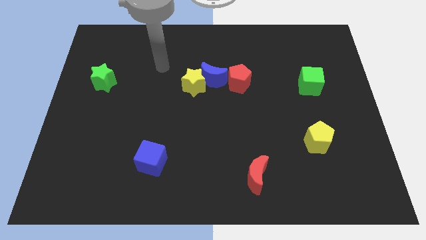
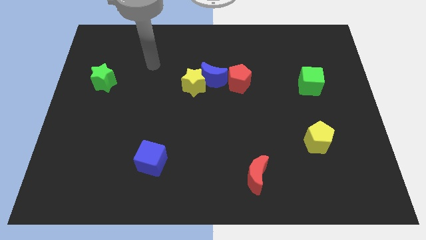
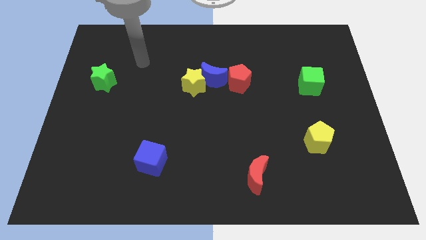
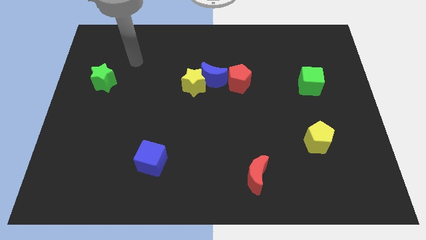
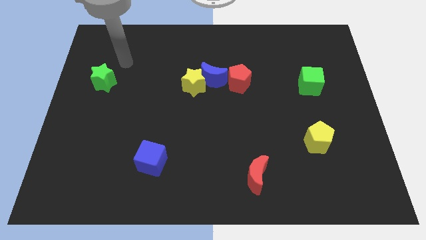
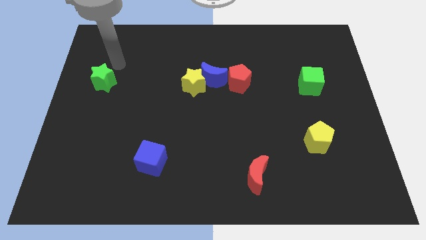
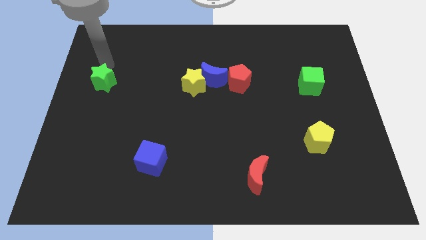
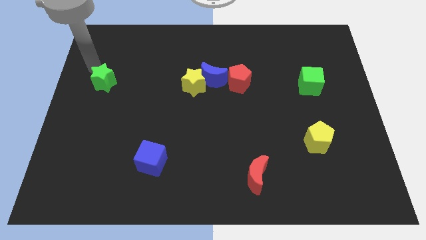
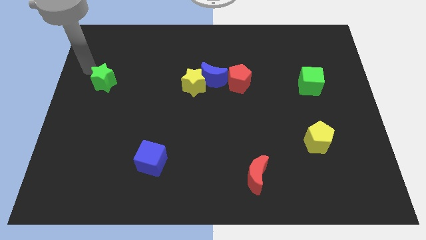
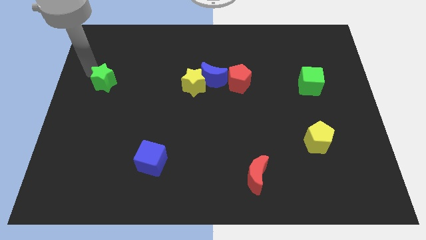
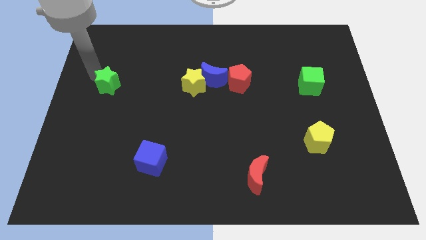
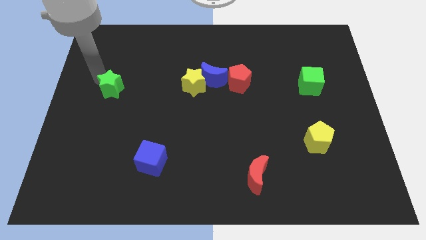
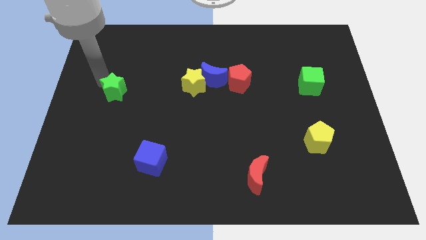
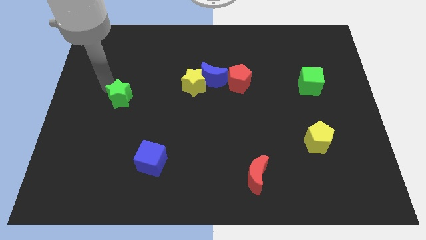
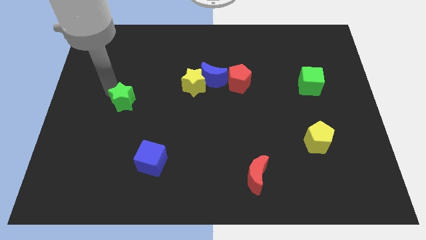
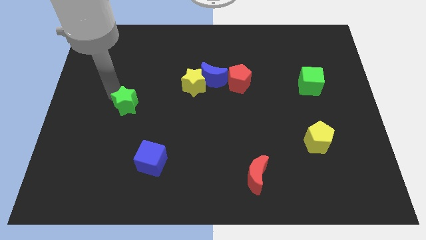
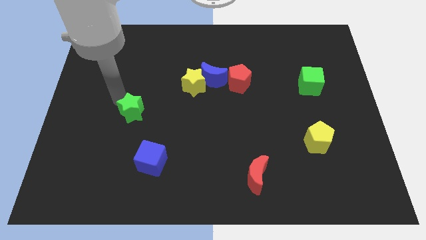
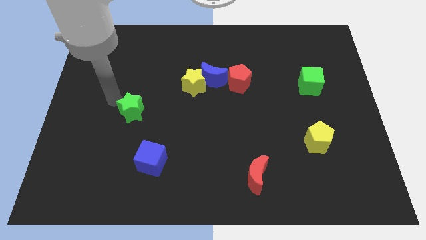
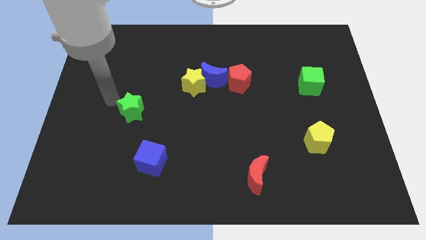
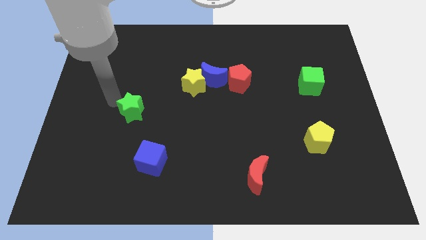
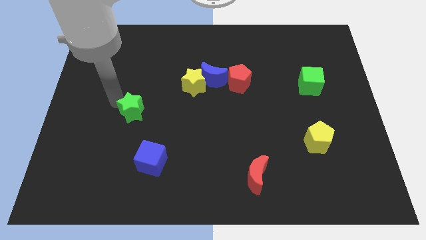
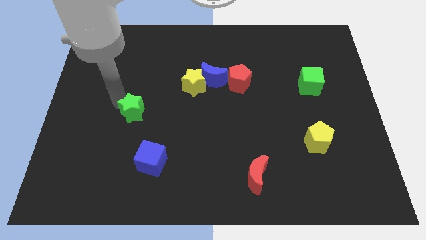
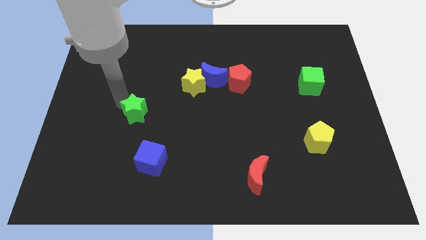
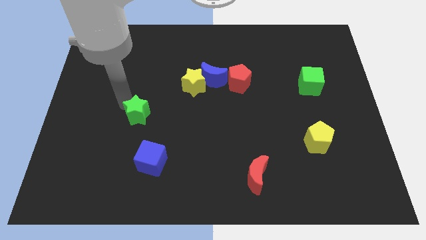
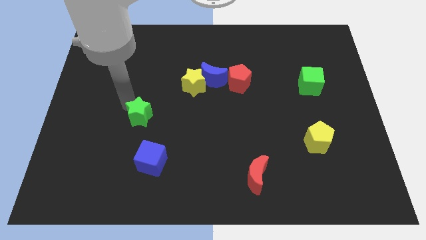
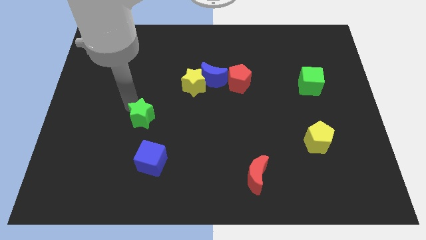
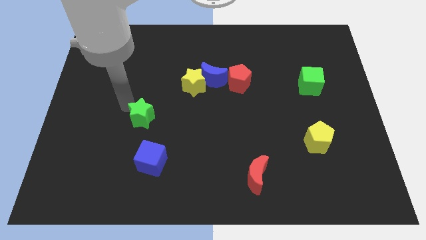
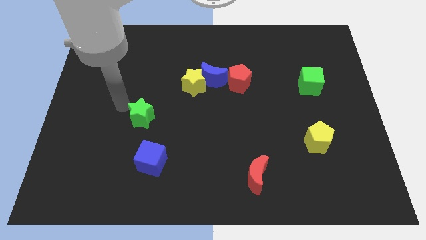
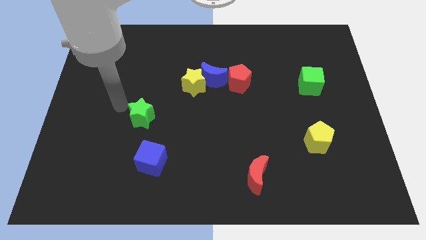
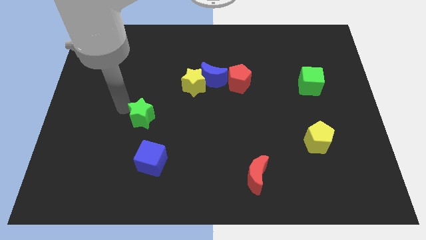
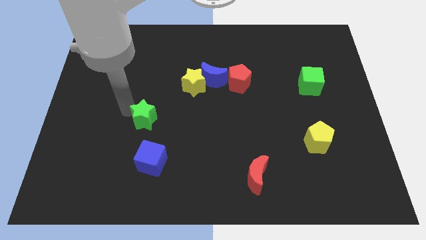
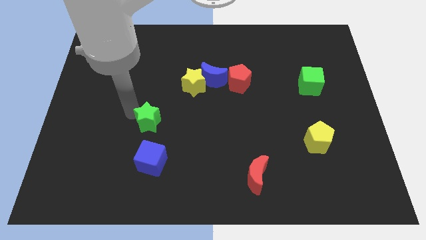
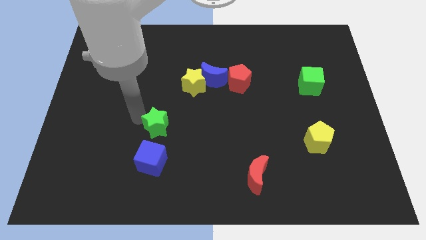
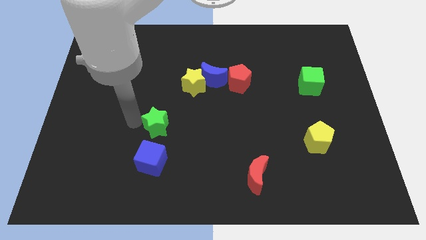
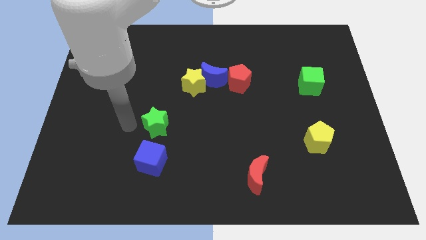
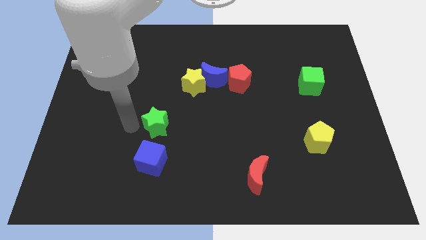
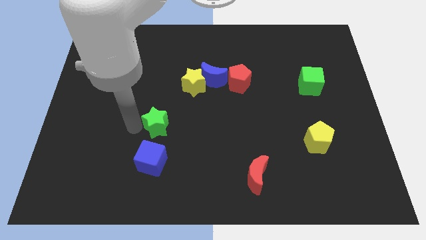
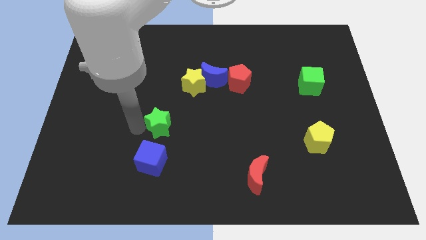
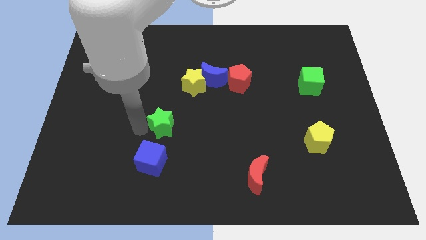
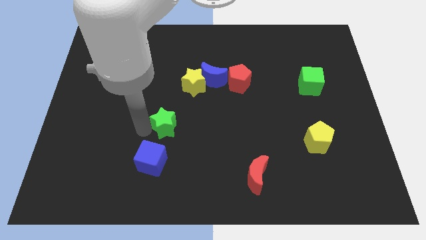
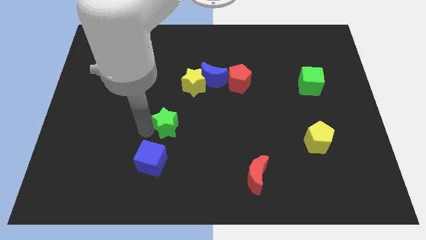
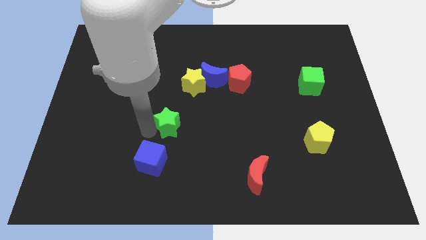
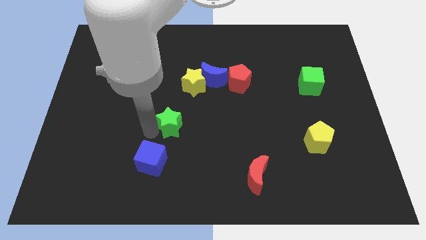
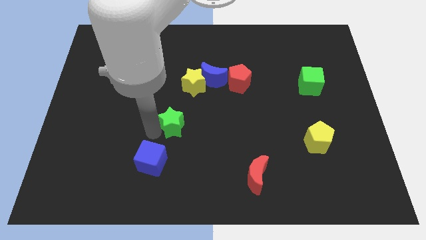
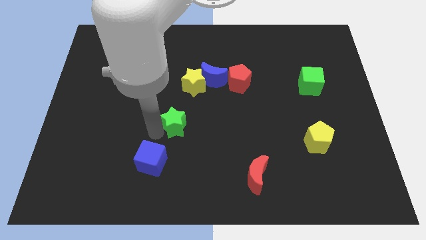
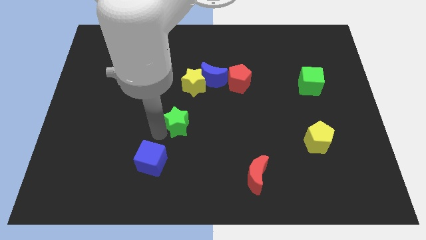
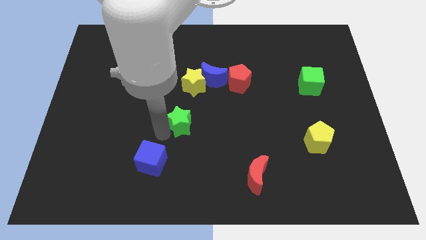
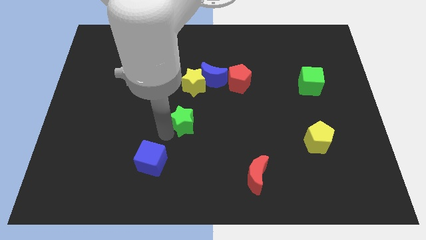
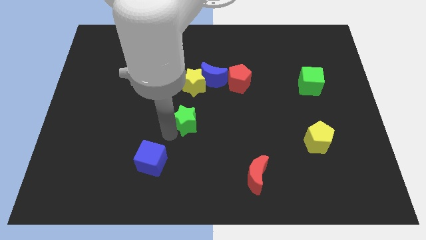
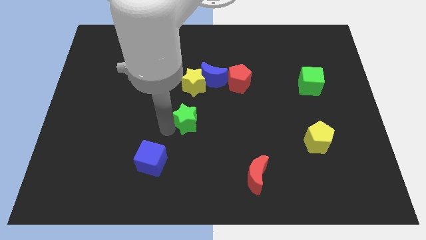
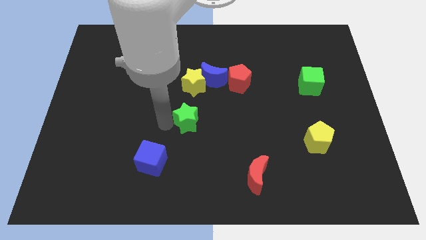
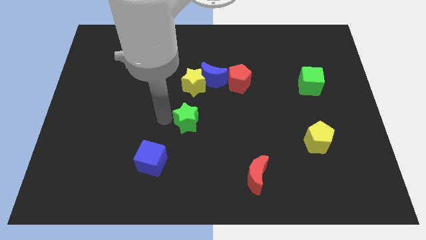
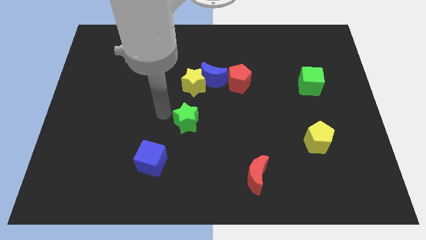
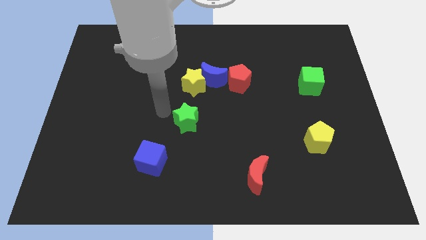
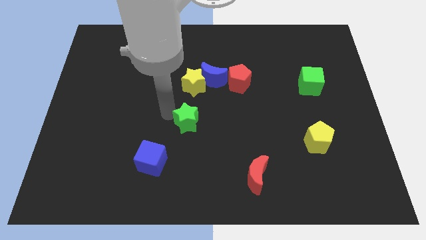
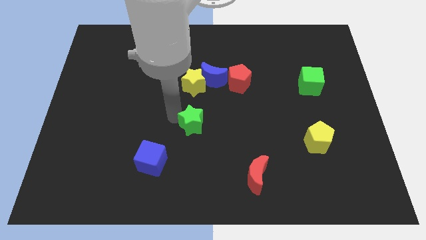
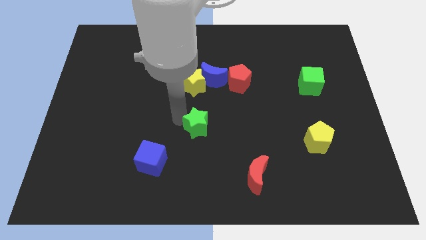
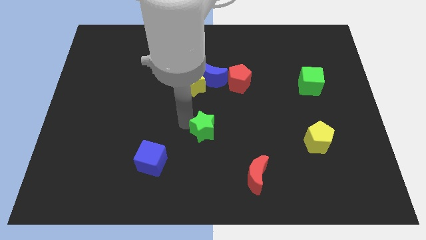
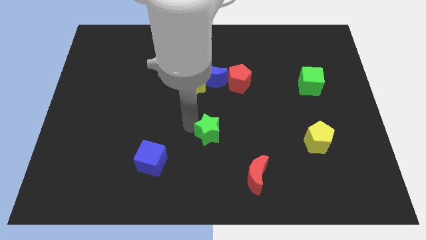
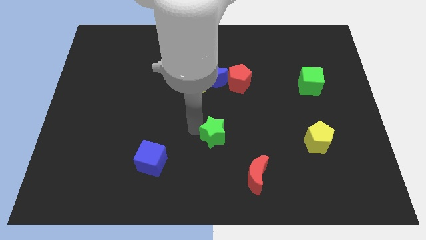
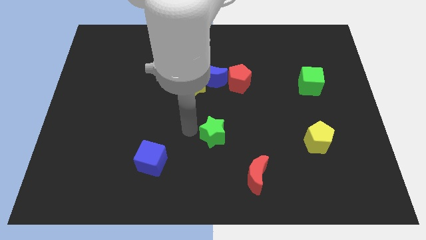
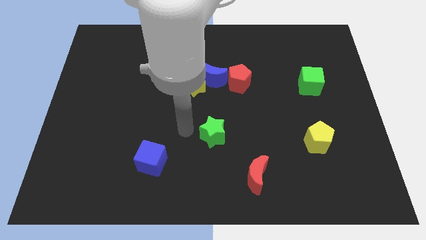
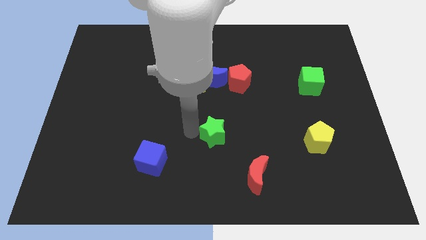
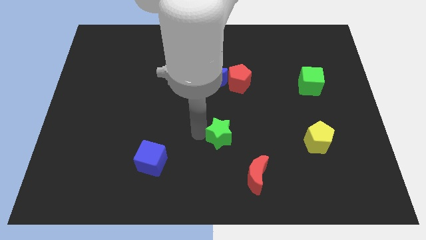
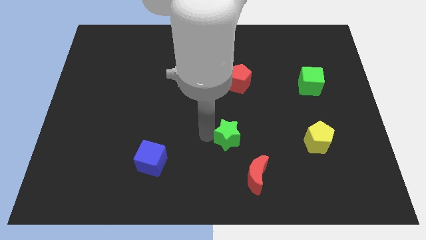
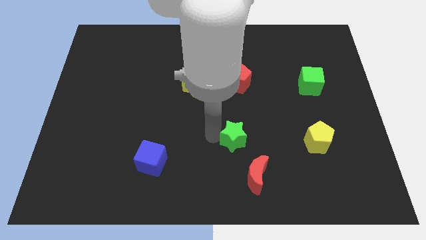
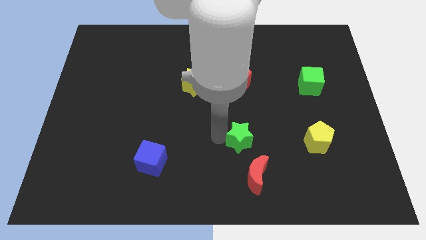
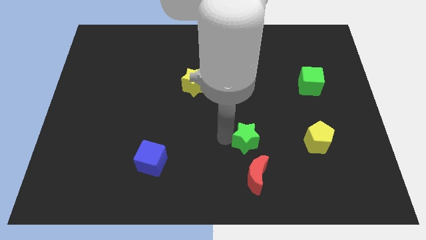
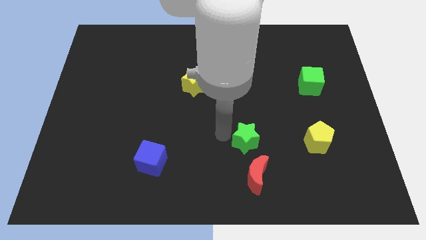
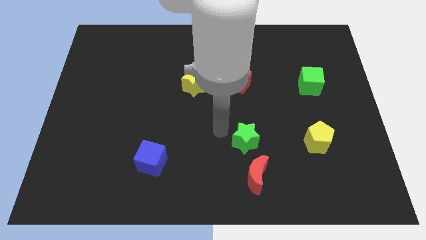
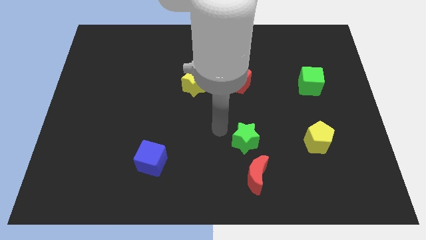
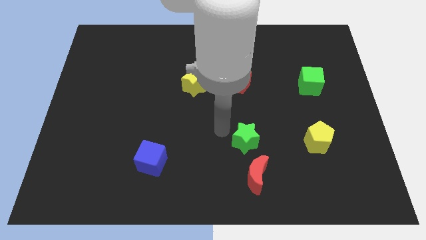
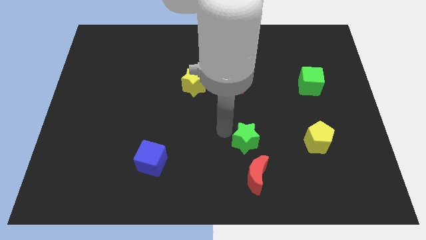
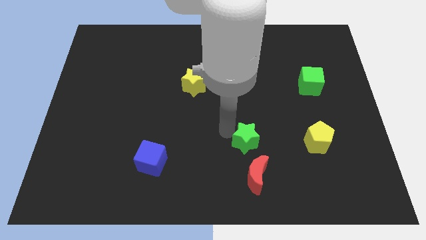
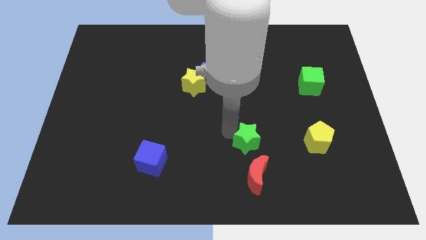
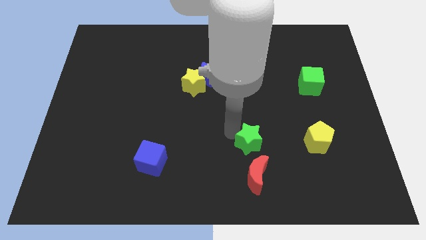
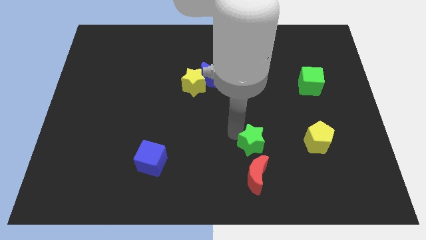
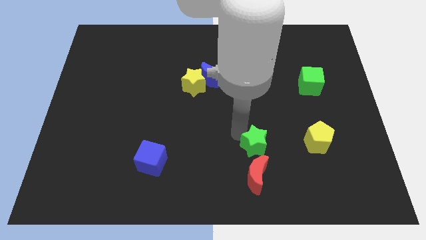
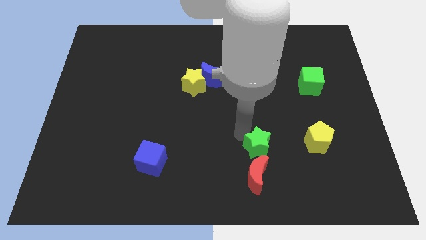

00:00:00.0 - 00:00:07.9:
put the green star to the top right side of the red moon
